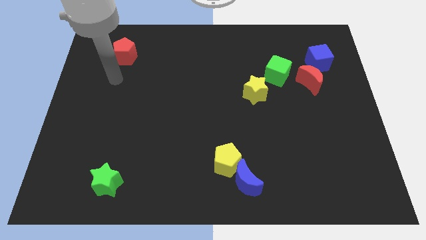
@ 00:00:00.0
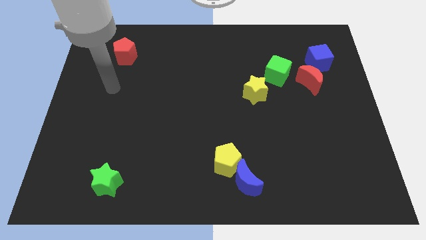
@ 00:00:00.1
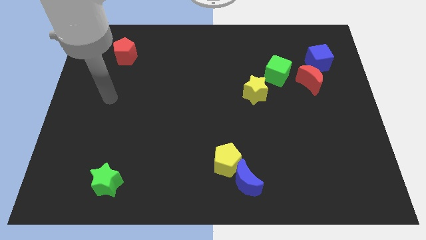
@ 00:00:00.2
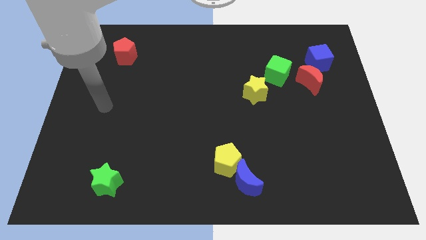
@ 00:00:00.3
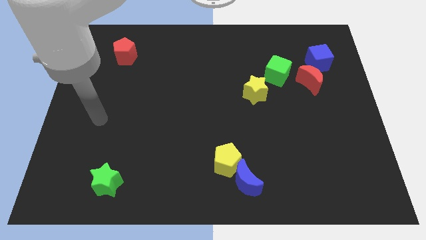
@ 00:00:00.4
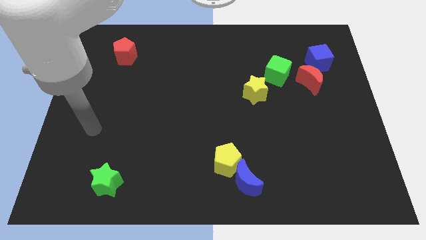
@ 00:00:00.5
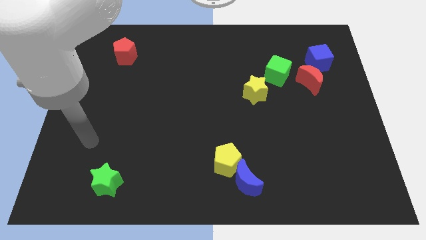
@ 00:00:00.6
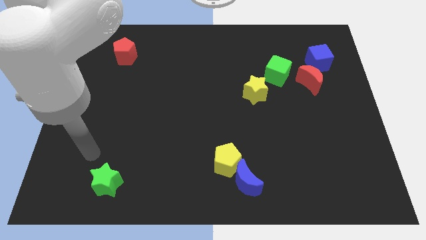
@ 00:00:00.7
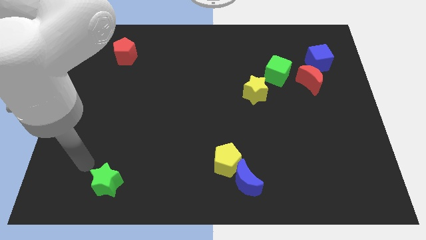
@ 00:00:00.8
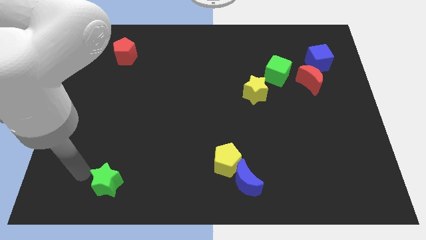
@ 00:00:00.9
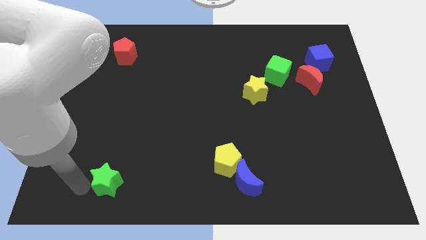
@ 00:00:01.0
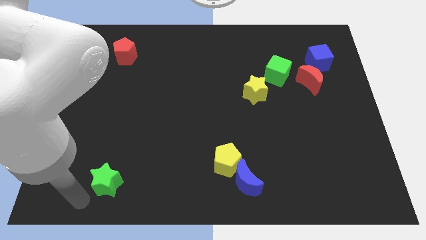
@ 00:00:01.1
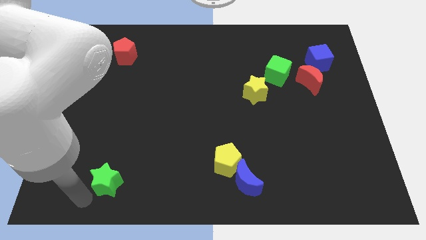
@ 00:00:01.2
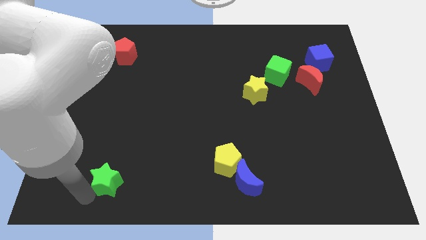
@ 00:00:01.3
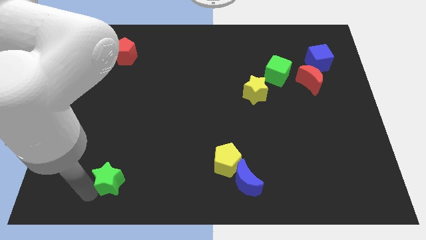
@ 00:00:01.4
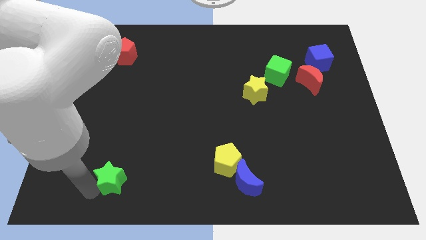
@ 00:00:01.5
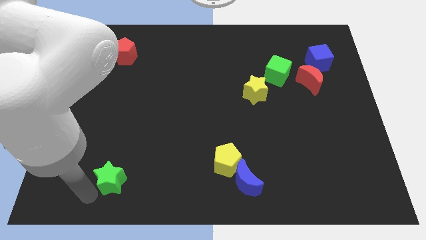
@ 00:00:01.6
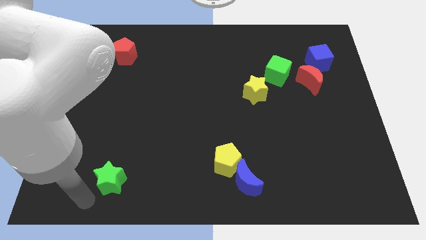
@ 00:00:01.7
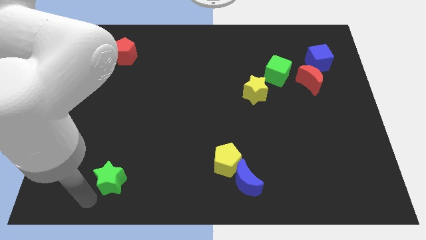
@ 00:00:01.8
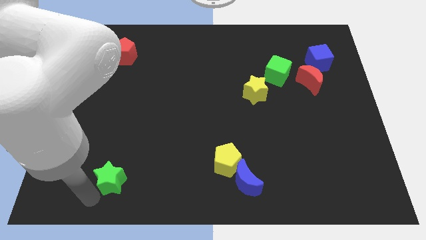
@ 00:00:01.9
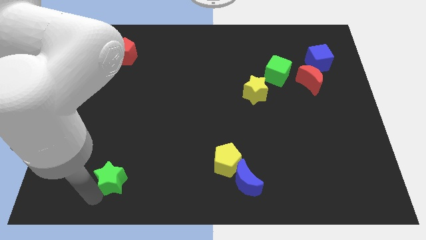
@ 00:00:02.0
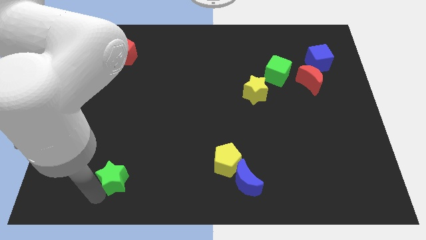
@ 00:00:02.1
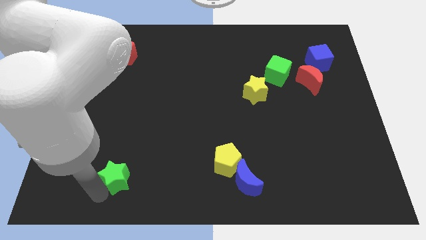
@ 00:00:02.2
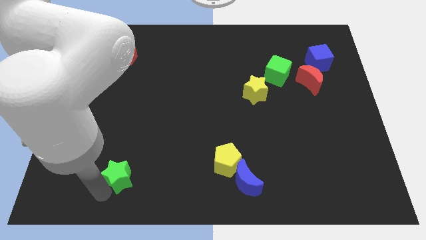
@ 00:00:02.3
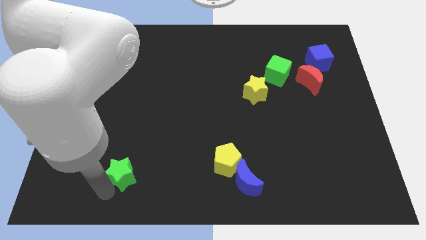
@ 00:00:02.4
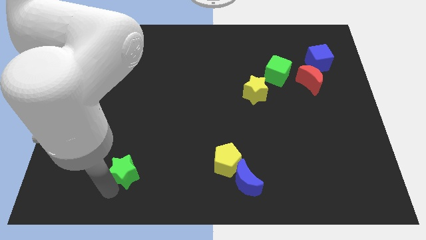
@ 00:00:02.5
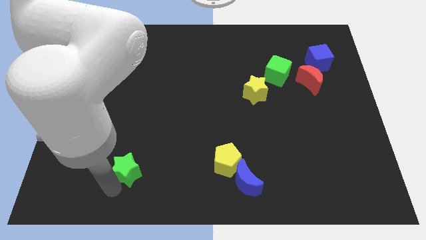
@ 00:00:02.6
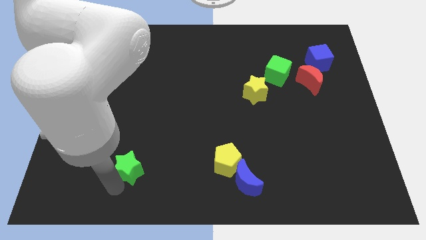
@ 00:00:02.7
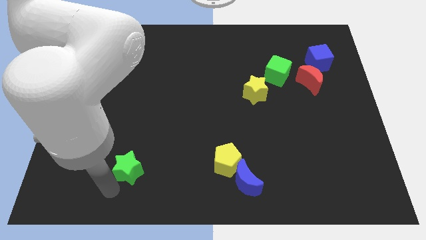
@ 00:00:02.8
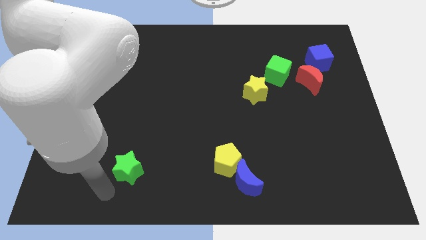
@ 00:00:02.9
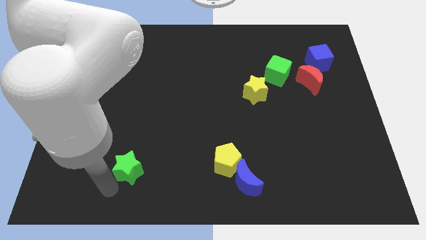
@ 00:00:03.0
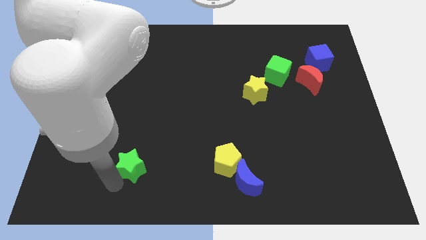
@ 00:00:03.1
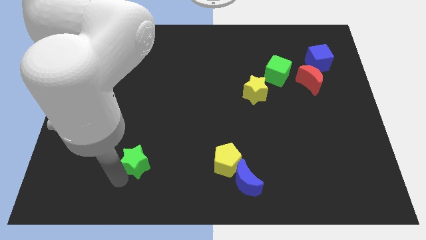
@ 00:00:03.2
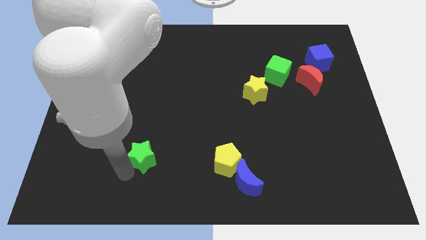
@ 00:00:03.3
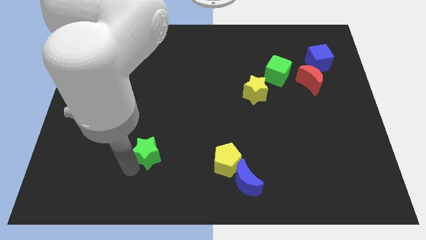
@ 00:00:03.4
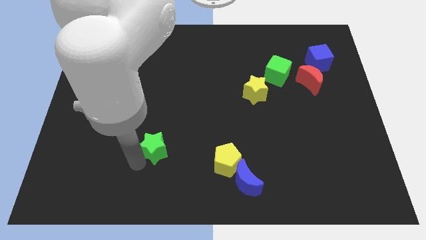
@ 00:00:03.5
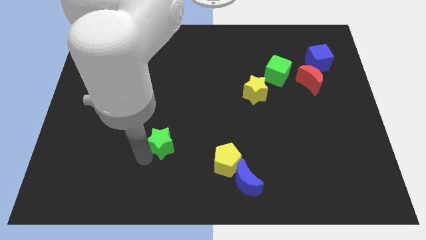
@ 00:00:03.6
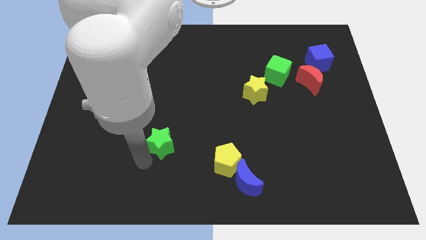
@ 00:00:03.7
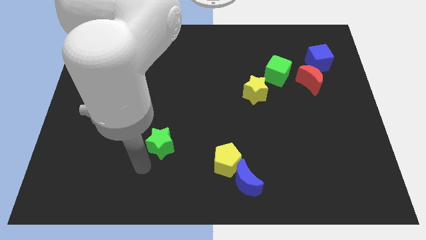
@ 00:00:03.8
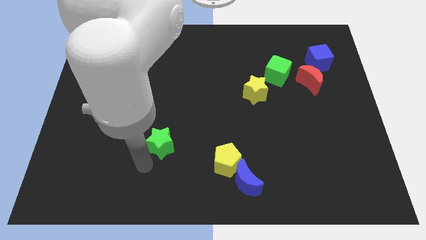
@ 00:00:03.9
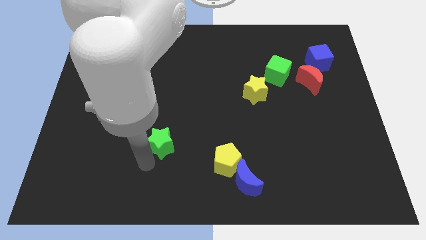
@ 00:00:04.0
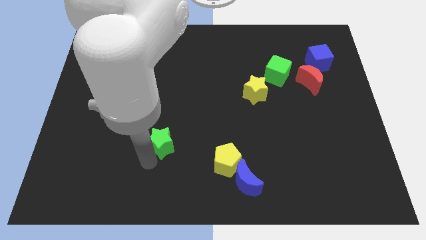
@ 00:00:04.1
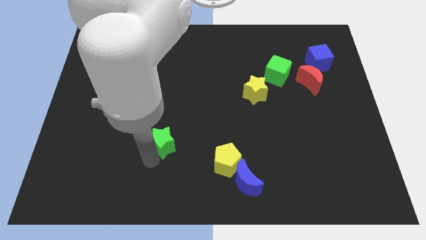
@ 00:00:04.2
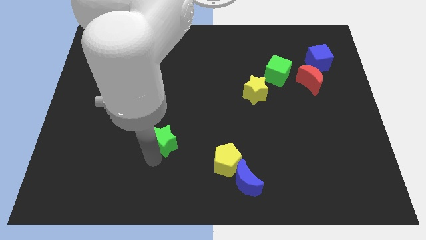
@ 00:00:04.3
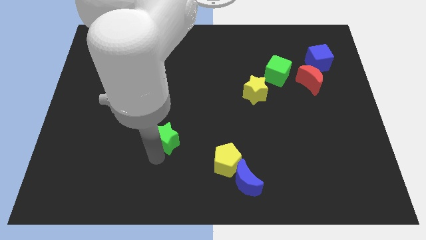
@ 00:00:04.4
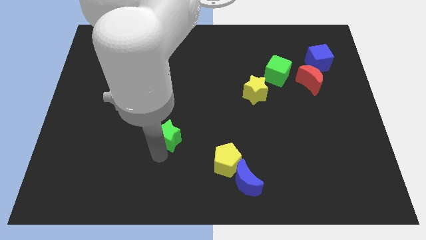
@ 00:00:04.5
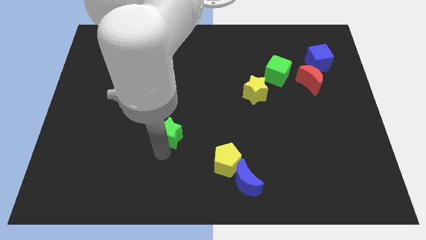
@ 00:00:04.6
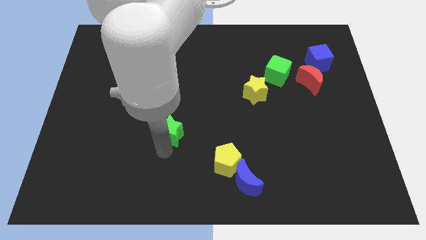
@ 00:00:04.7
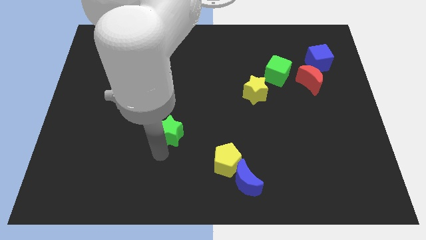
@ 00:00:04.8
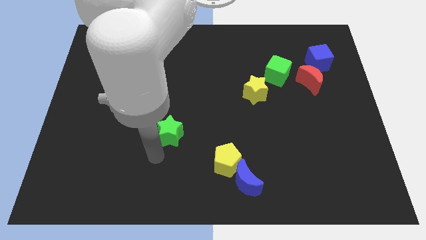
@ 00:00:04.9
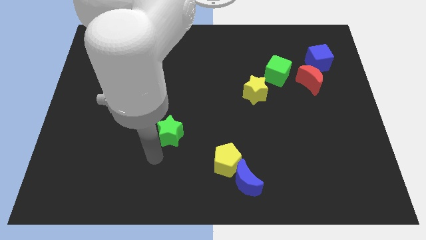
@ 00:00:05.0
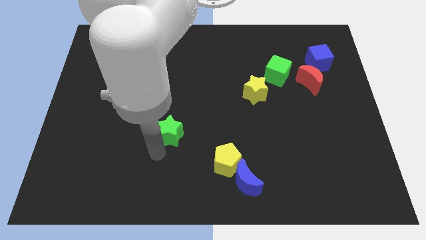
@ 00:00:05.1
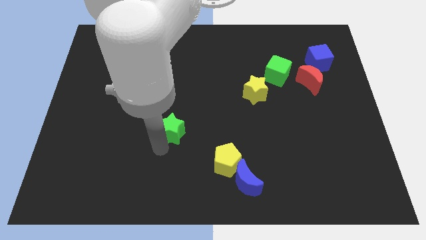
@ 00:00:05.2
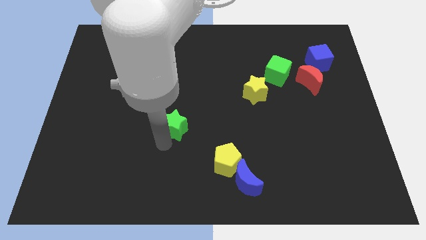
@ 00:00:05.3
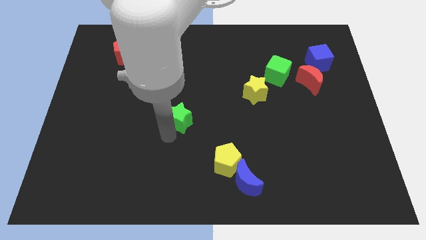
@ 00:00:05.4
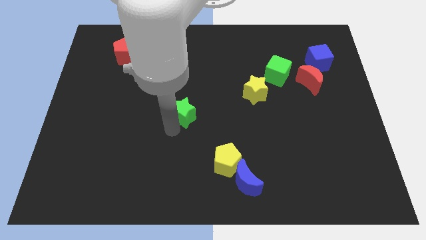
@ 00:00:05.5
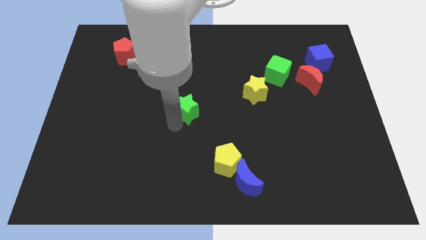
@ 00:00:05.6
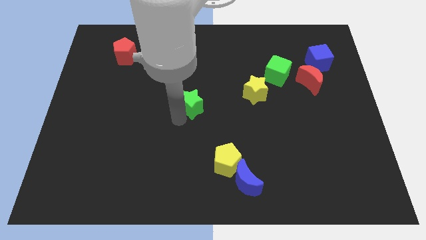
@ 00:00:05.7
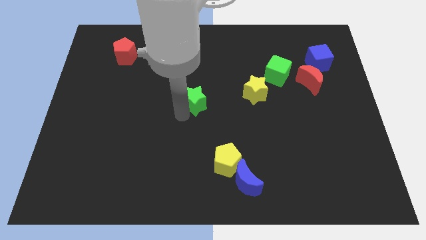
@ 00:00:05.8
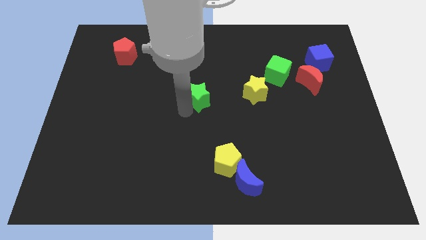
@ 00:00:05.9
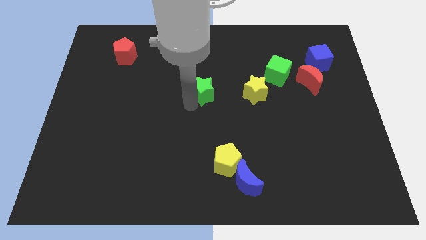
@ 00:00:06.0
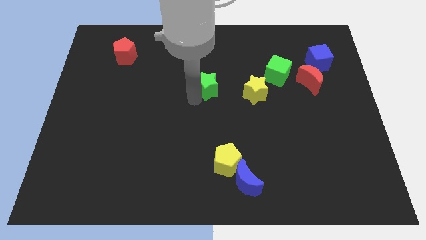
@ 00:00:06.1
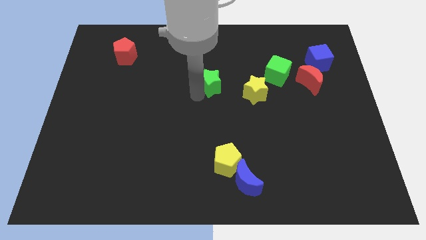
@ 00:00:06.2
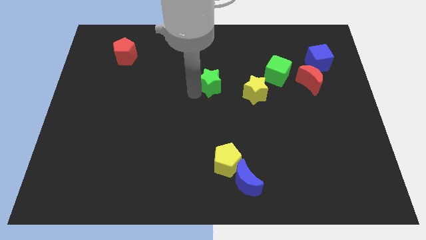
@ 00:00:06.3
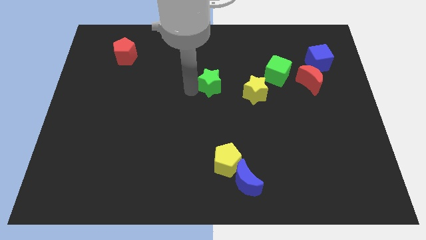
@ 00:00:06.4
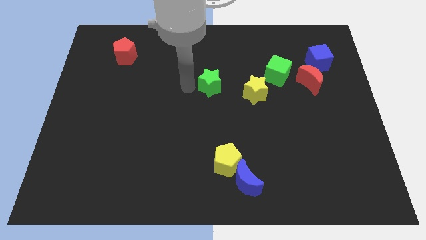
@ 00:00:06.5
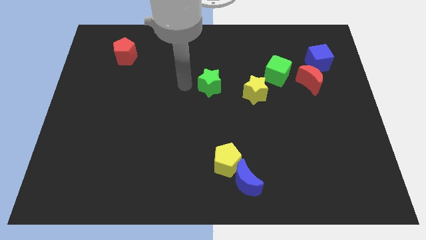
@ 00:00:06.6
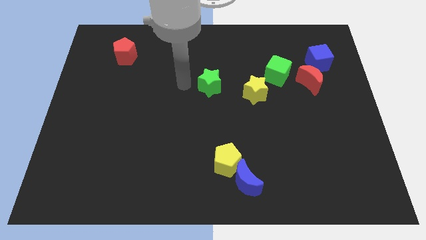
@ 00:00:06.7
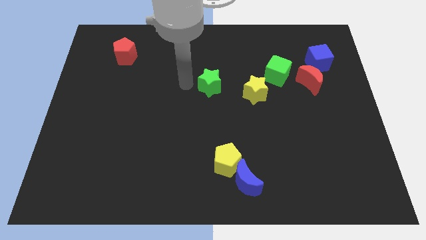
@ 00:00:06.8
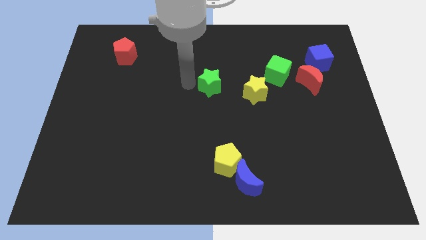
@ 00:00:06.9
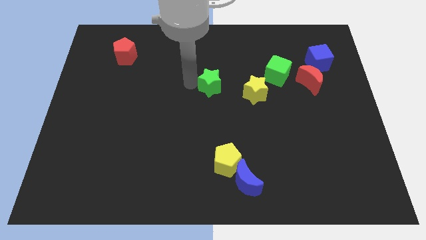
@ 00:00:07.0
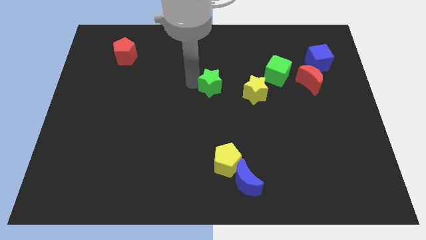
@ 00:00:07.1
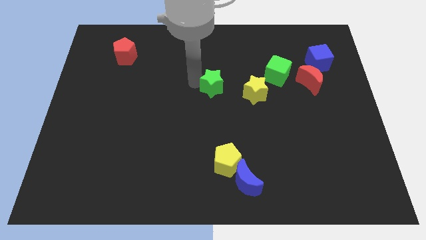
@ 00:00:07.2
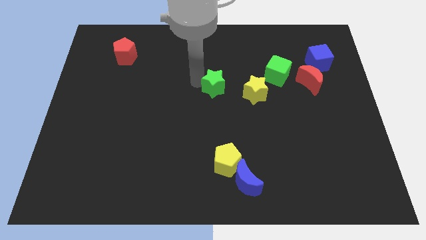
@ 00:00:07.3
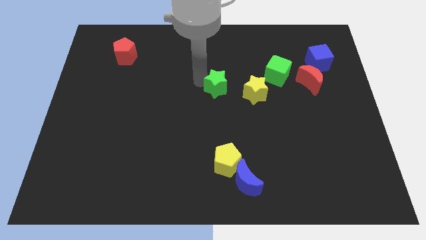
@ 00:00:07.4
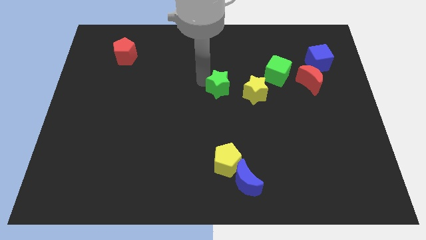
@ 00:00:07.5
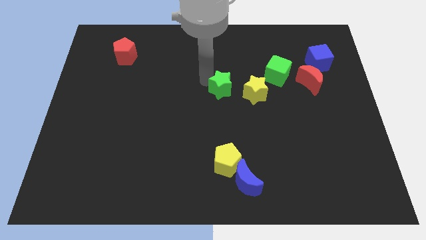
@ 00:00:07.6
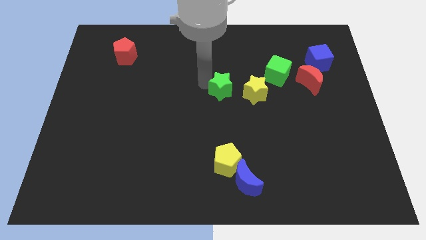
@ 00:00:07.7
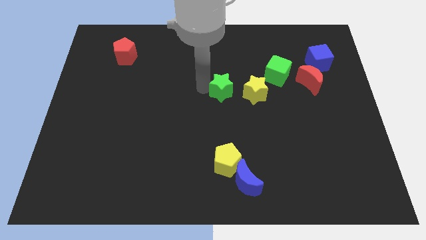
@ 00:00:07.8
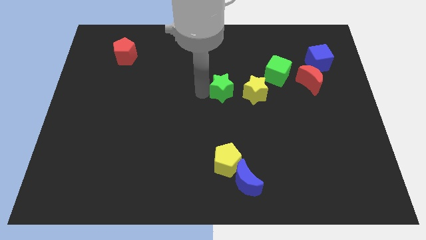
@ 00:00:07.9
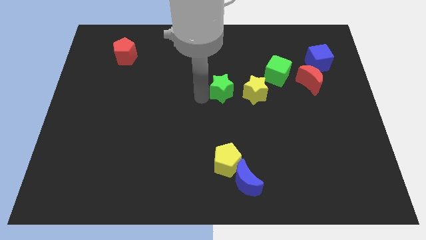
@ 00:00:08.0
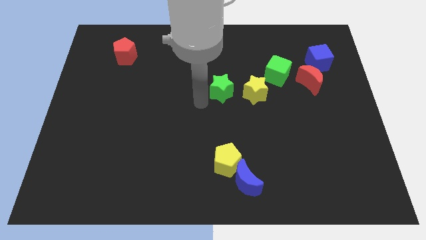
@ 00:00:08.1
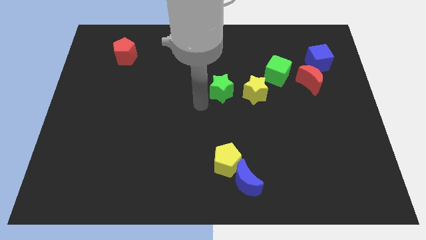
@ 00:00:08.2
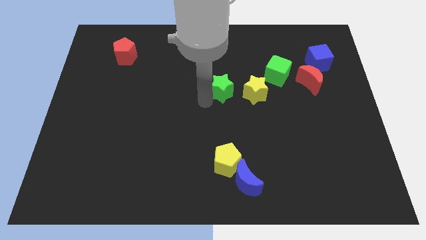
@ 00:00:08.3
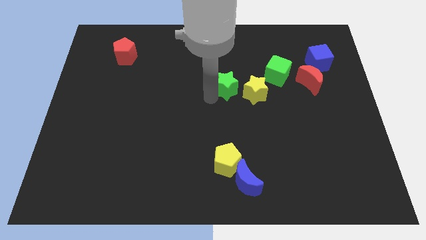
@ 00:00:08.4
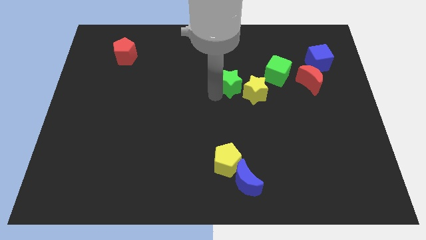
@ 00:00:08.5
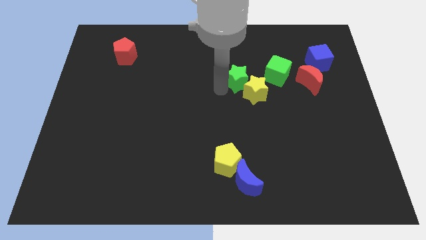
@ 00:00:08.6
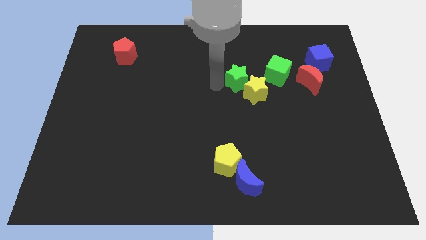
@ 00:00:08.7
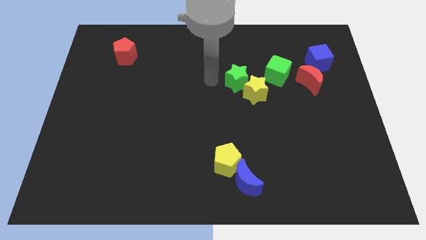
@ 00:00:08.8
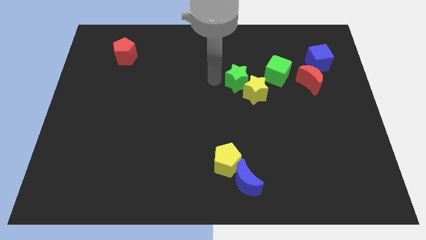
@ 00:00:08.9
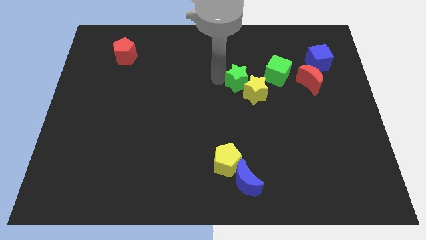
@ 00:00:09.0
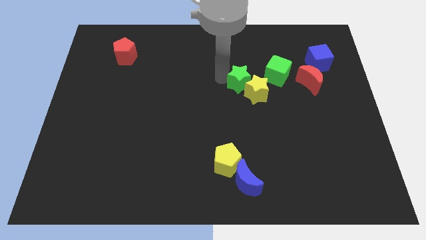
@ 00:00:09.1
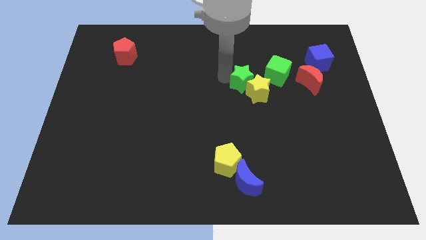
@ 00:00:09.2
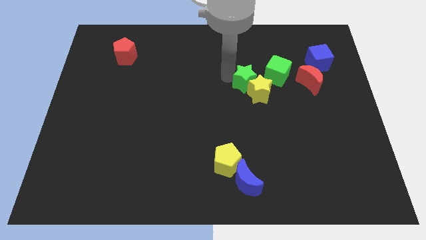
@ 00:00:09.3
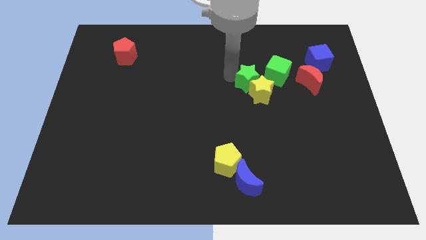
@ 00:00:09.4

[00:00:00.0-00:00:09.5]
move the green star just left of the red moon
